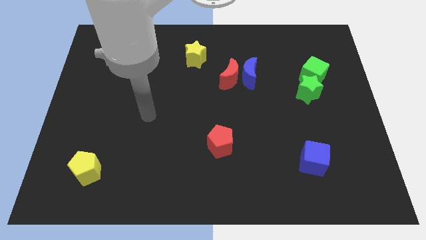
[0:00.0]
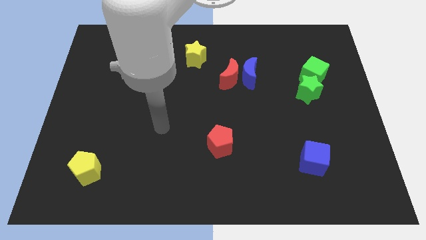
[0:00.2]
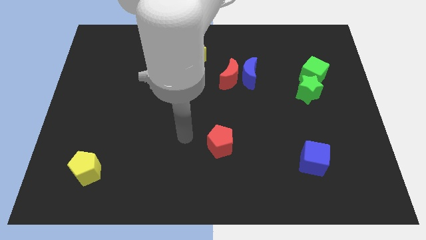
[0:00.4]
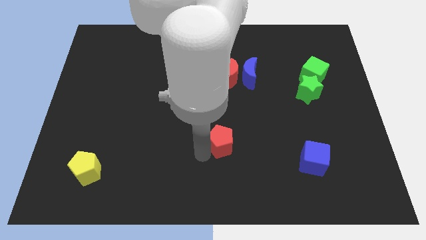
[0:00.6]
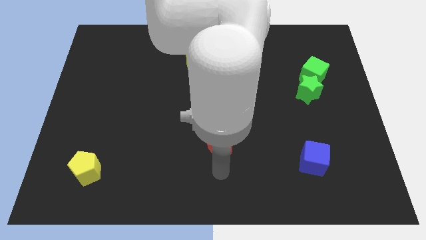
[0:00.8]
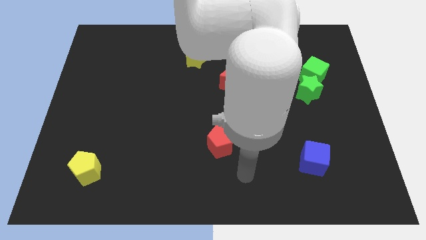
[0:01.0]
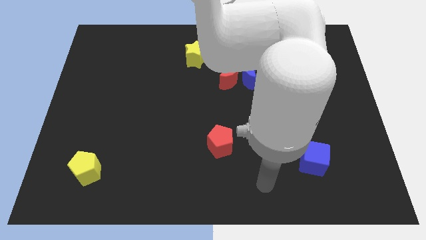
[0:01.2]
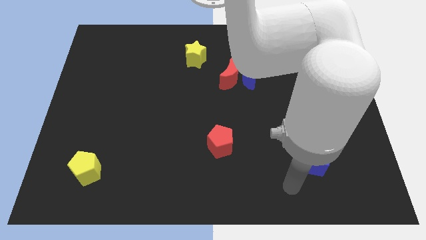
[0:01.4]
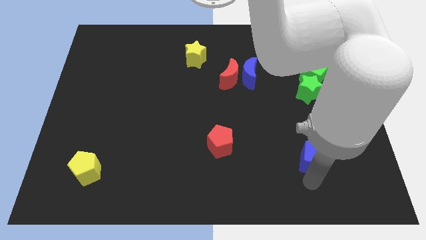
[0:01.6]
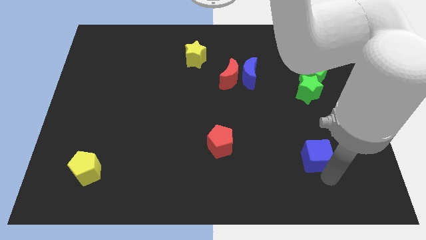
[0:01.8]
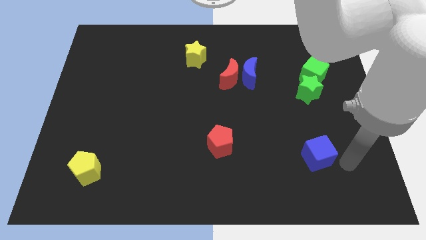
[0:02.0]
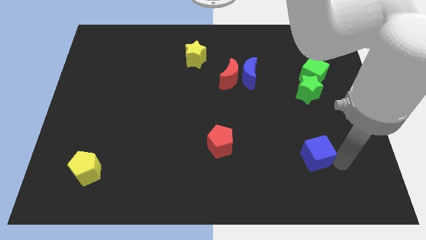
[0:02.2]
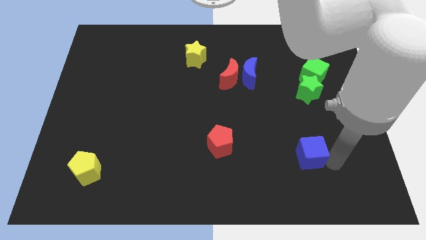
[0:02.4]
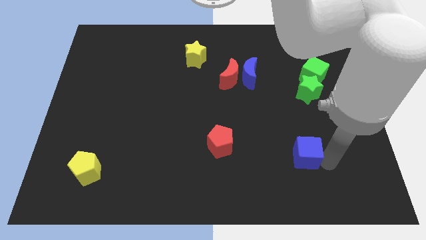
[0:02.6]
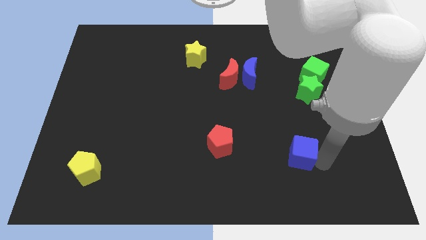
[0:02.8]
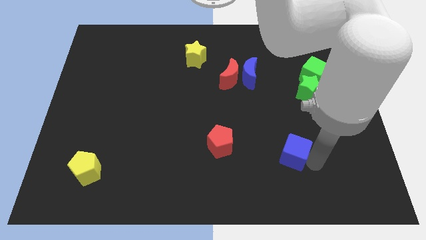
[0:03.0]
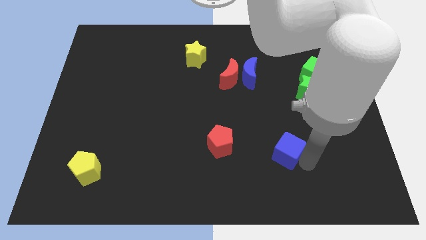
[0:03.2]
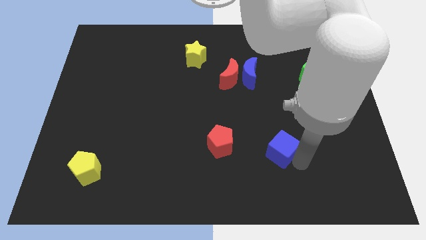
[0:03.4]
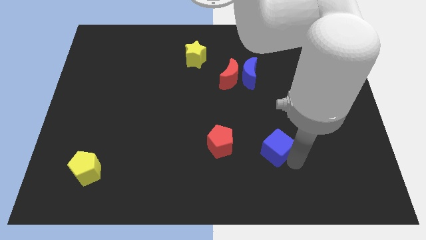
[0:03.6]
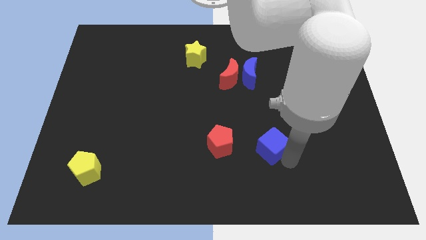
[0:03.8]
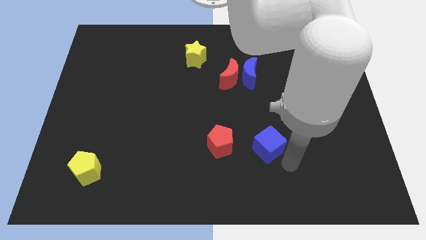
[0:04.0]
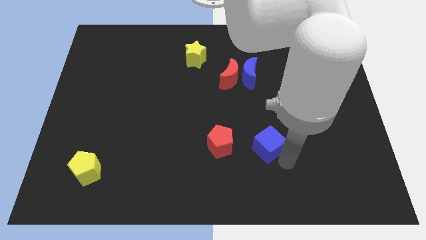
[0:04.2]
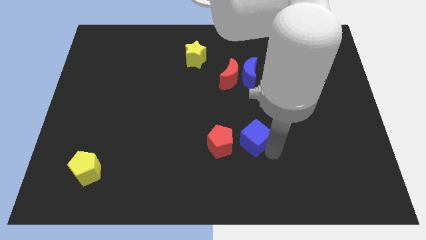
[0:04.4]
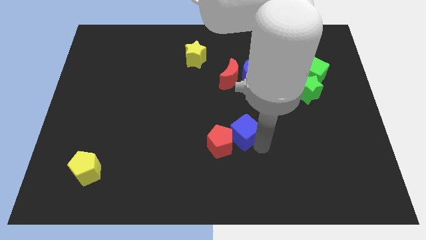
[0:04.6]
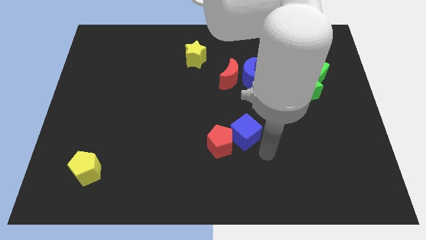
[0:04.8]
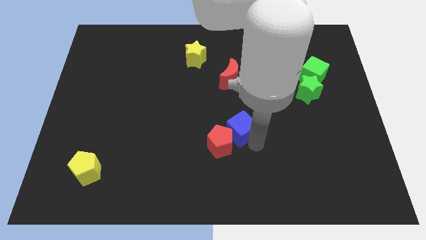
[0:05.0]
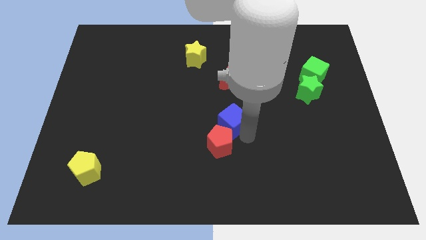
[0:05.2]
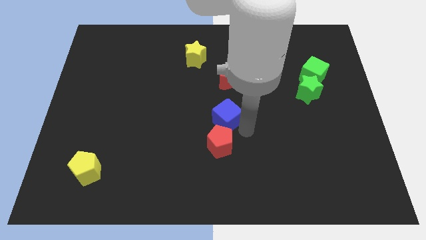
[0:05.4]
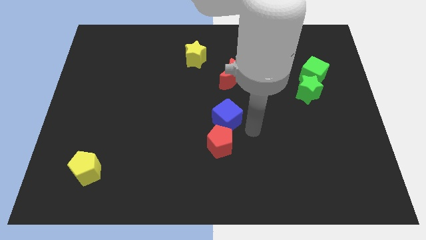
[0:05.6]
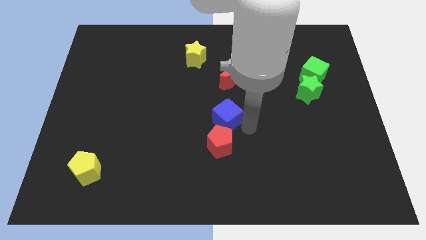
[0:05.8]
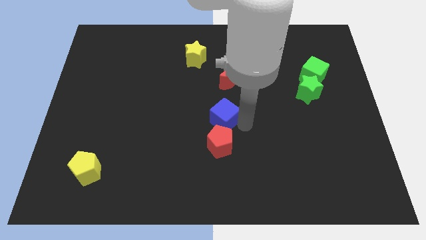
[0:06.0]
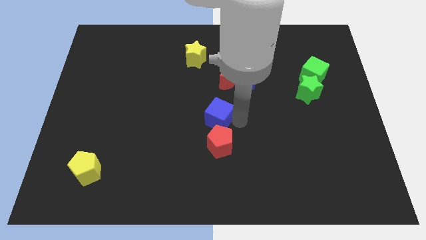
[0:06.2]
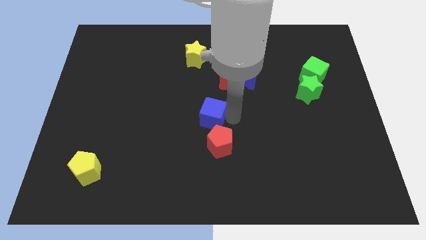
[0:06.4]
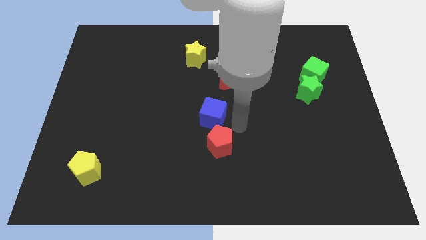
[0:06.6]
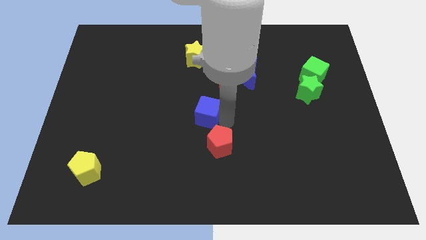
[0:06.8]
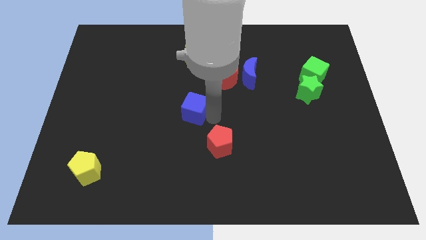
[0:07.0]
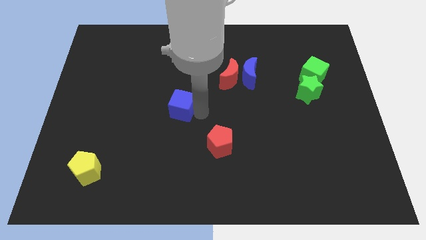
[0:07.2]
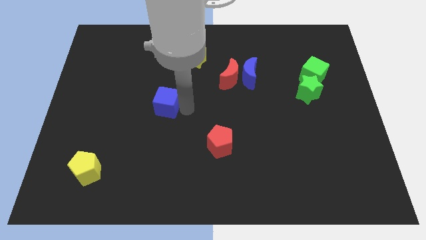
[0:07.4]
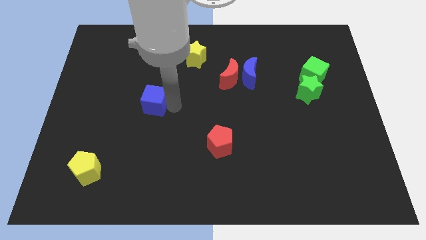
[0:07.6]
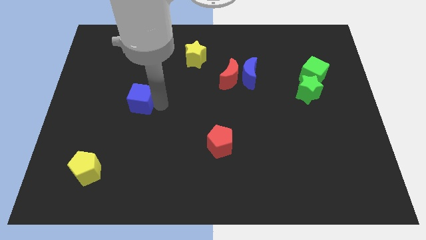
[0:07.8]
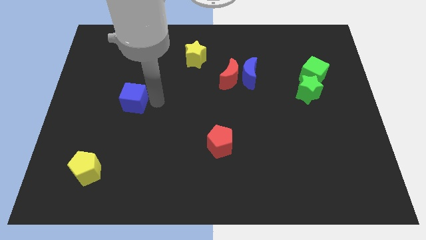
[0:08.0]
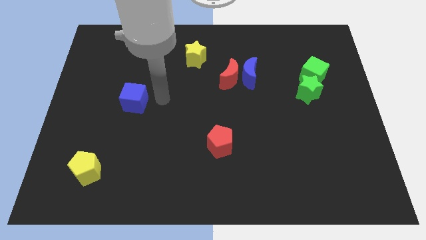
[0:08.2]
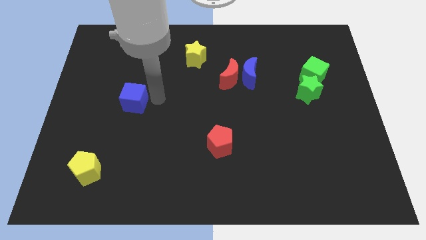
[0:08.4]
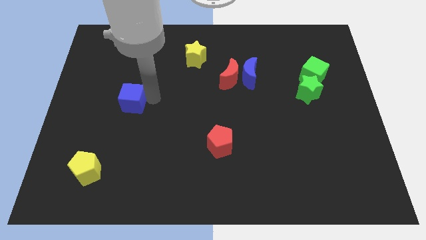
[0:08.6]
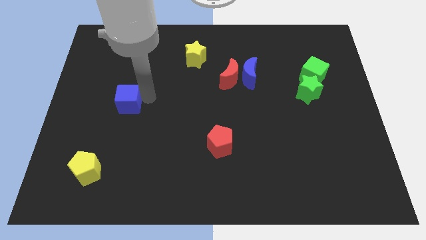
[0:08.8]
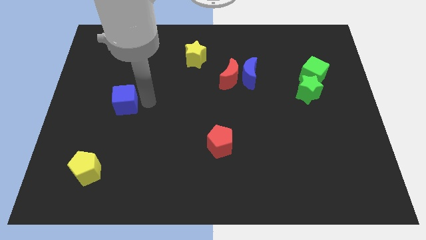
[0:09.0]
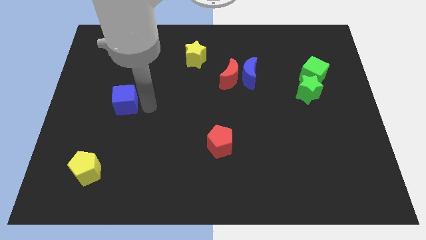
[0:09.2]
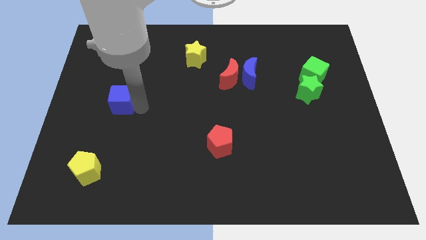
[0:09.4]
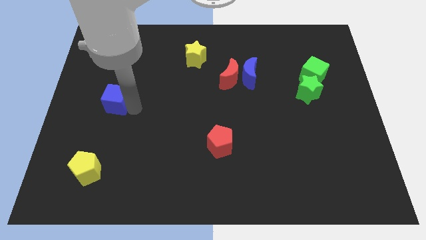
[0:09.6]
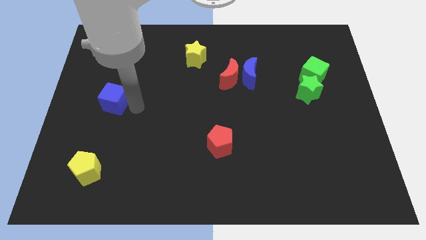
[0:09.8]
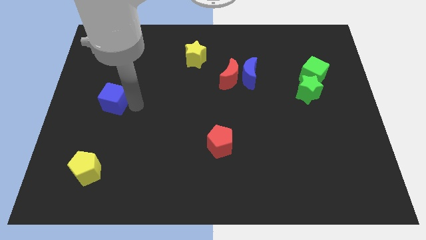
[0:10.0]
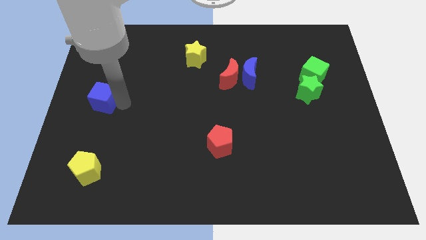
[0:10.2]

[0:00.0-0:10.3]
push the blue cube to the center left

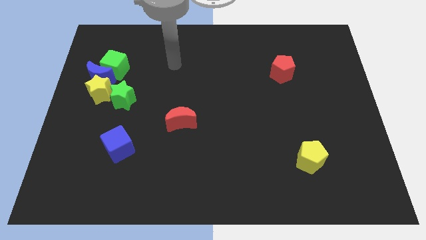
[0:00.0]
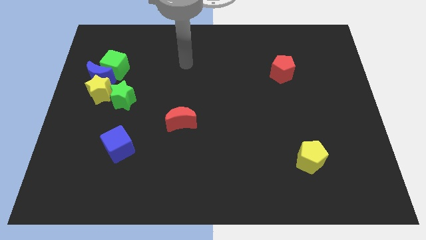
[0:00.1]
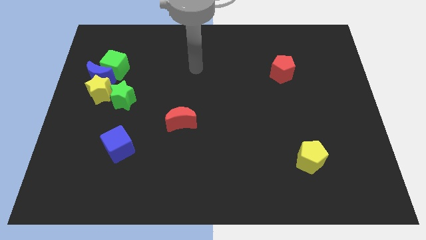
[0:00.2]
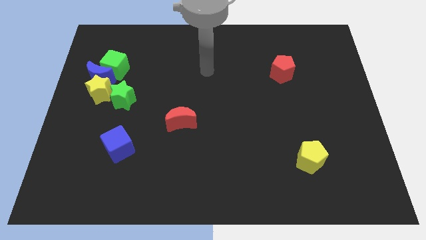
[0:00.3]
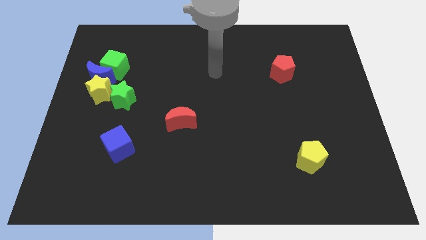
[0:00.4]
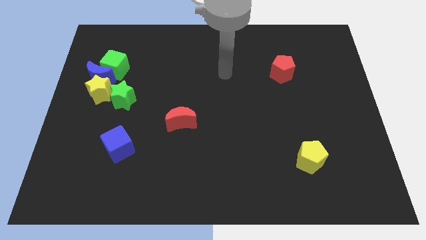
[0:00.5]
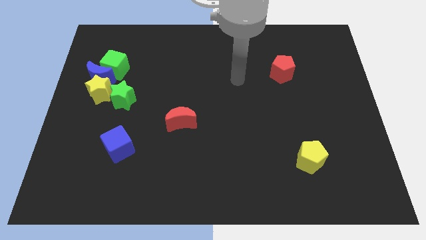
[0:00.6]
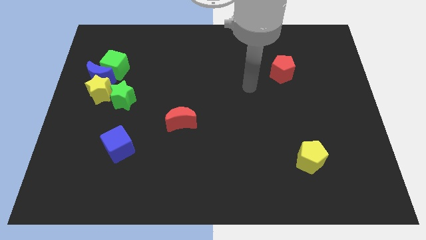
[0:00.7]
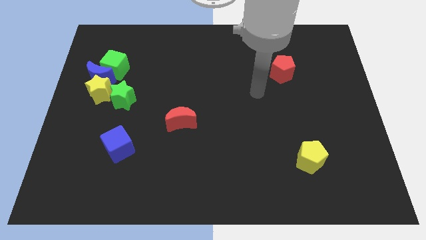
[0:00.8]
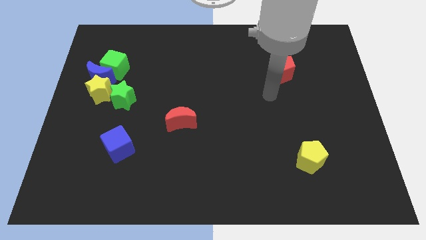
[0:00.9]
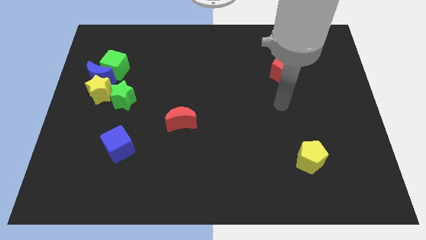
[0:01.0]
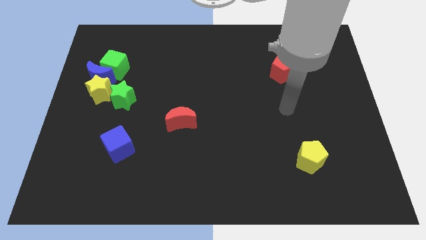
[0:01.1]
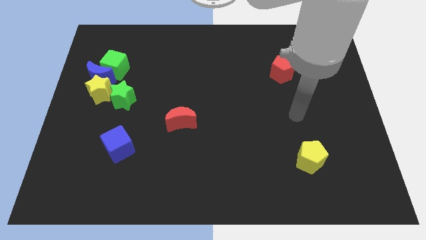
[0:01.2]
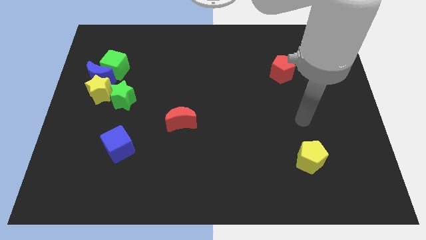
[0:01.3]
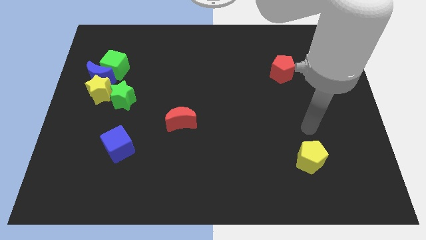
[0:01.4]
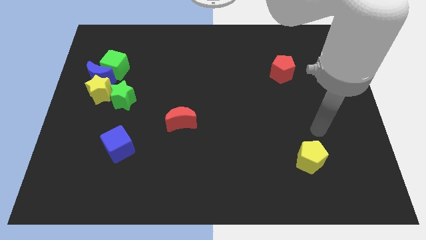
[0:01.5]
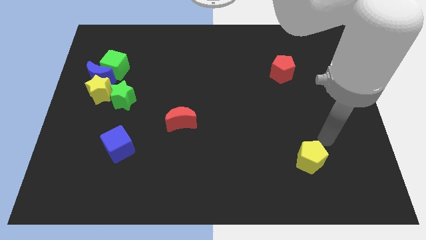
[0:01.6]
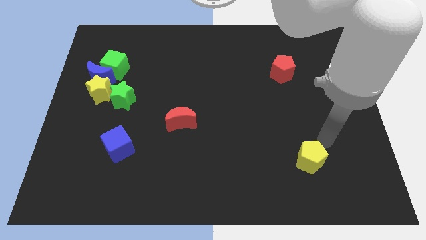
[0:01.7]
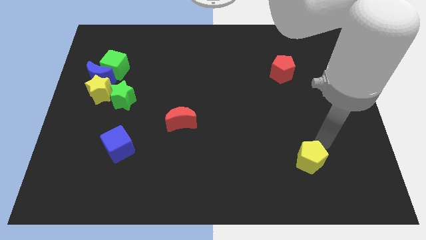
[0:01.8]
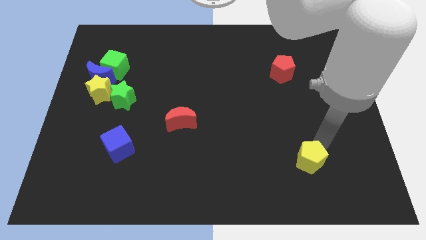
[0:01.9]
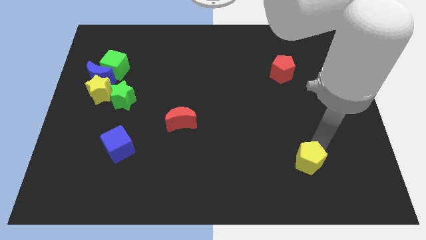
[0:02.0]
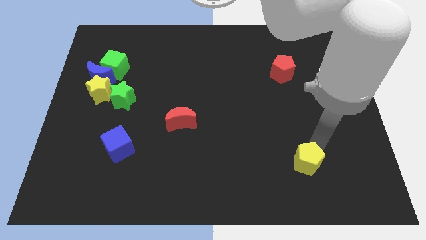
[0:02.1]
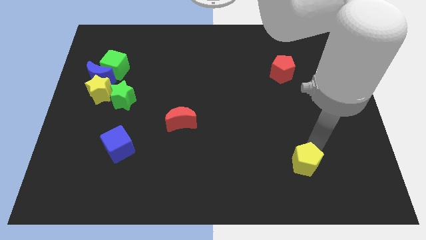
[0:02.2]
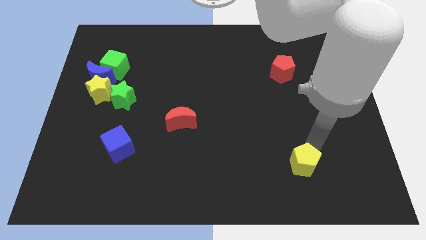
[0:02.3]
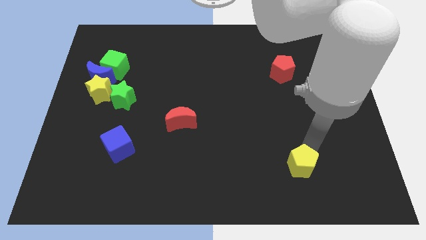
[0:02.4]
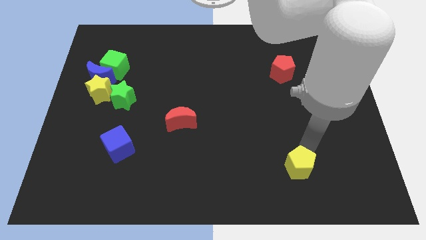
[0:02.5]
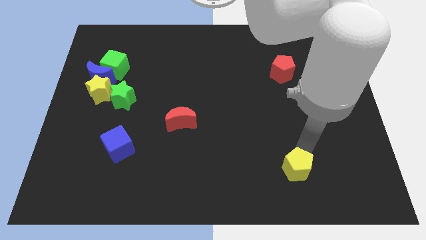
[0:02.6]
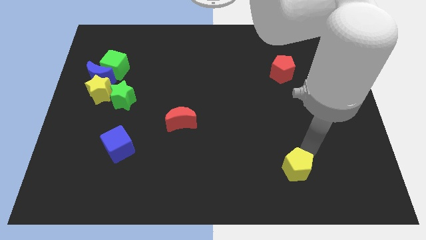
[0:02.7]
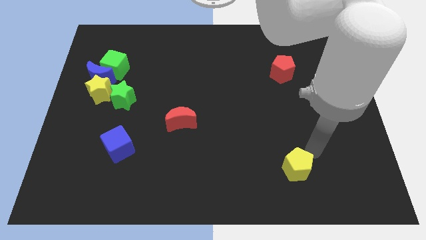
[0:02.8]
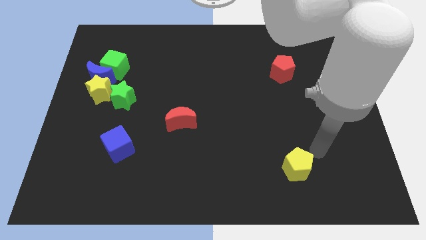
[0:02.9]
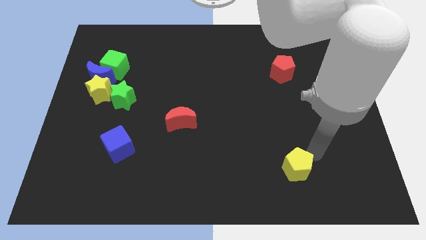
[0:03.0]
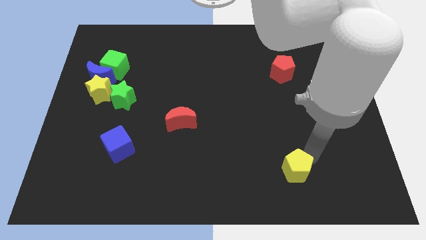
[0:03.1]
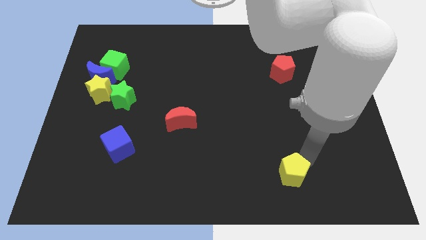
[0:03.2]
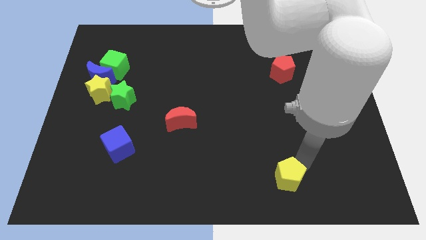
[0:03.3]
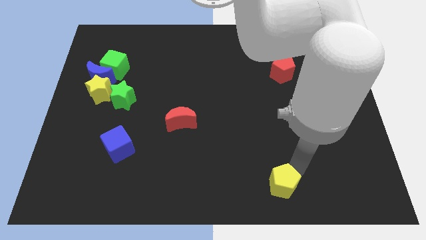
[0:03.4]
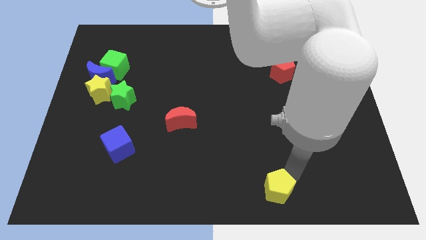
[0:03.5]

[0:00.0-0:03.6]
put the yellow pentagon to the bottom
